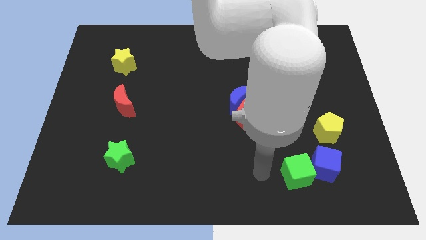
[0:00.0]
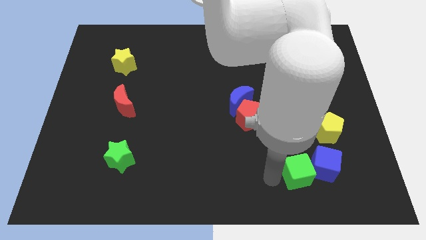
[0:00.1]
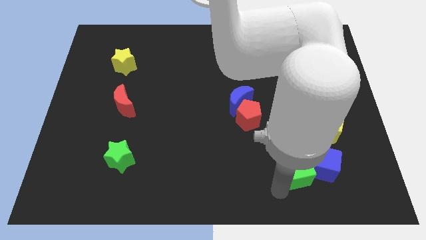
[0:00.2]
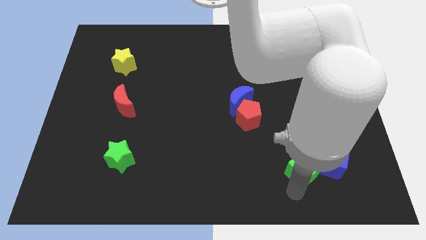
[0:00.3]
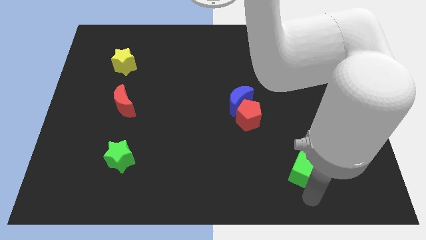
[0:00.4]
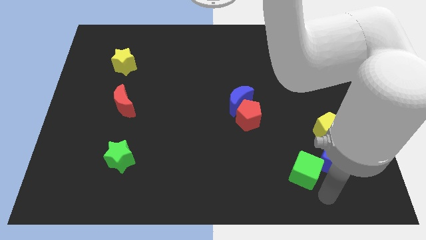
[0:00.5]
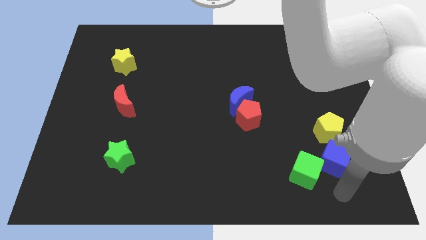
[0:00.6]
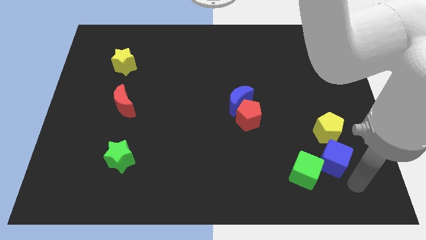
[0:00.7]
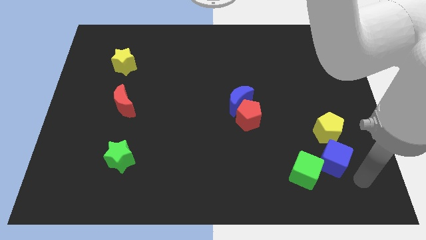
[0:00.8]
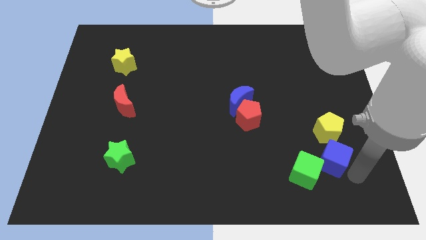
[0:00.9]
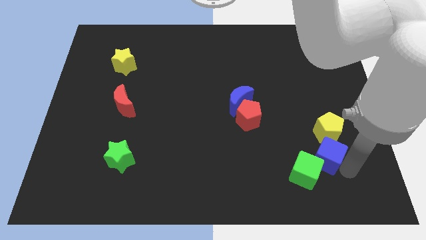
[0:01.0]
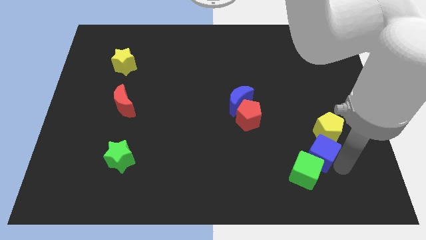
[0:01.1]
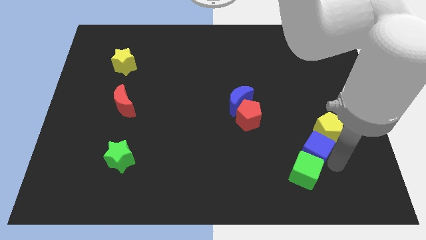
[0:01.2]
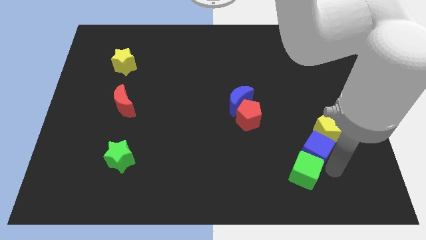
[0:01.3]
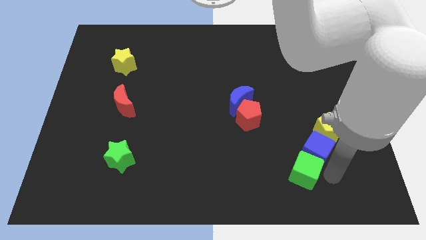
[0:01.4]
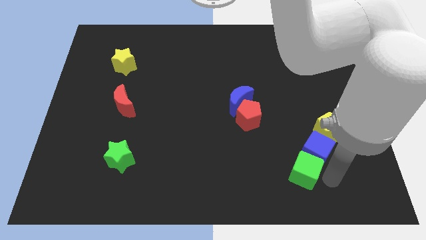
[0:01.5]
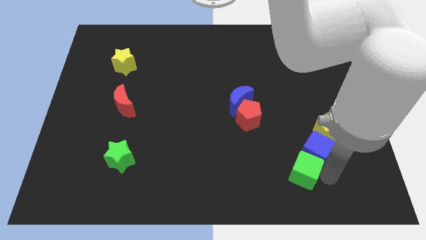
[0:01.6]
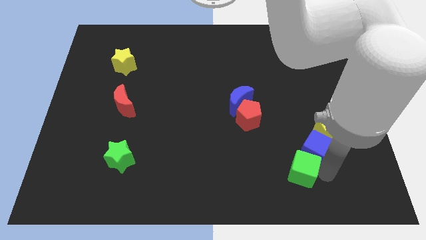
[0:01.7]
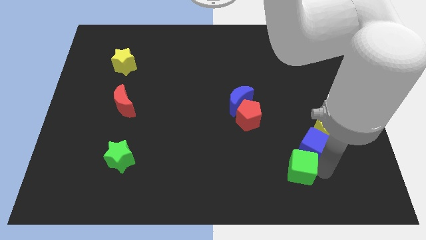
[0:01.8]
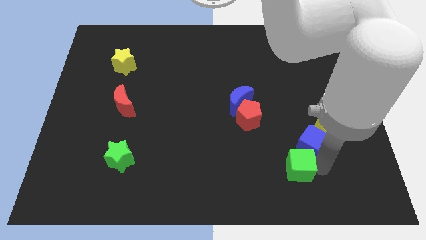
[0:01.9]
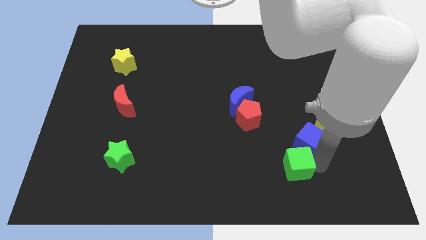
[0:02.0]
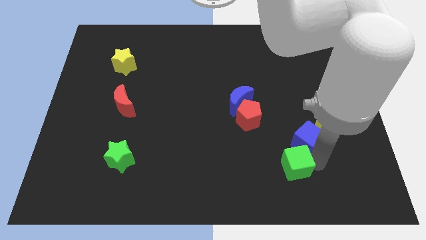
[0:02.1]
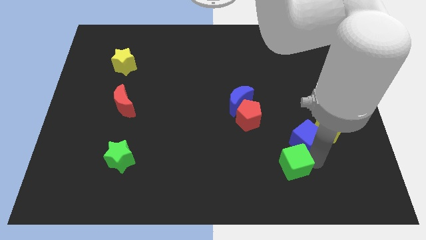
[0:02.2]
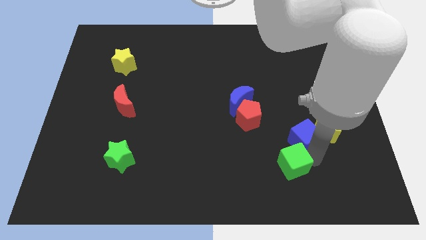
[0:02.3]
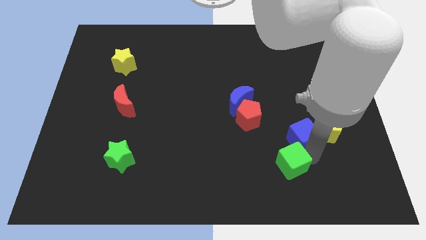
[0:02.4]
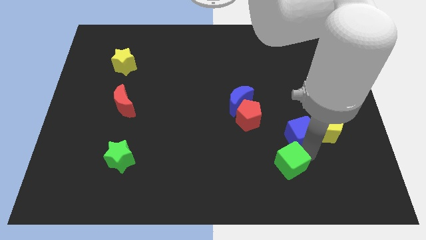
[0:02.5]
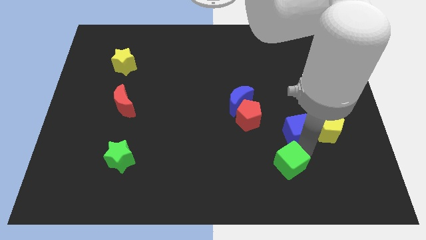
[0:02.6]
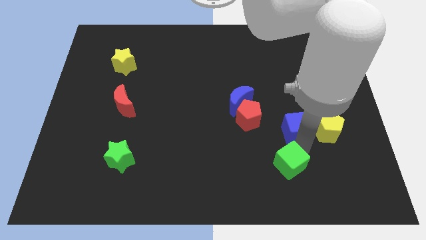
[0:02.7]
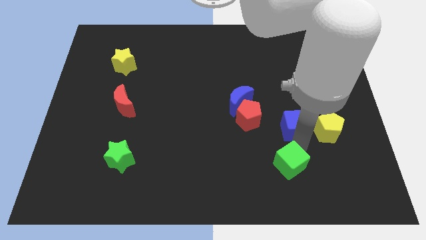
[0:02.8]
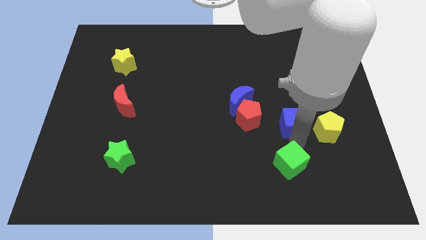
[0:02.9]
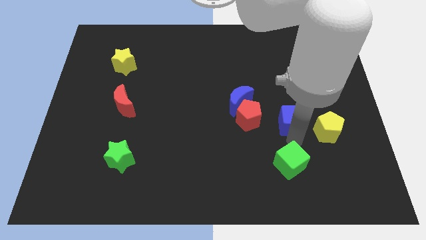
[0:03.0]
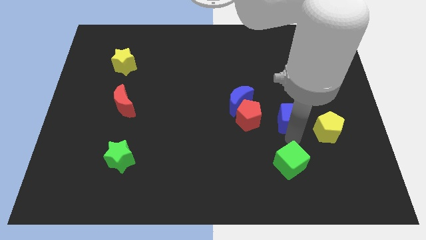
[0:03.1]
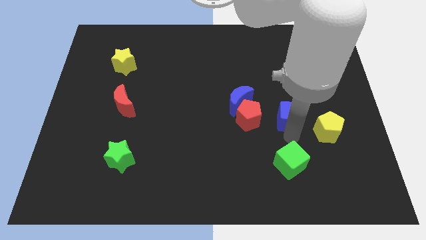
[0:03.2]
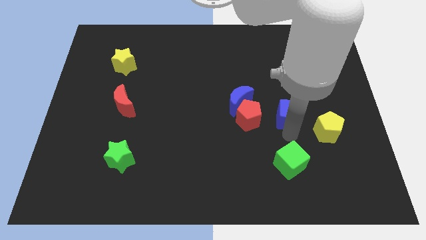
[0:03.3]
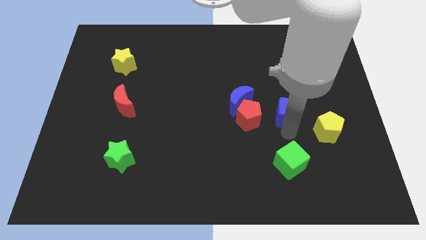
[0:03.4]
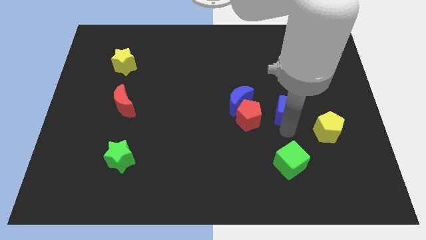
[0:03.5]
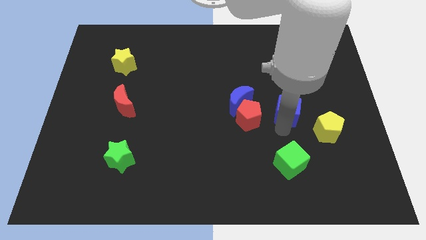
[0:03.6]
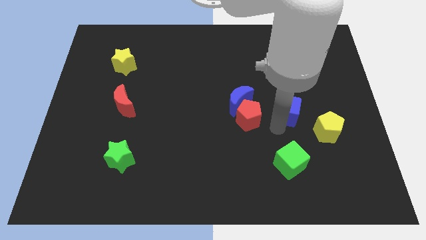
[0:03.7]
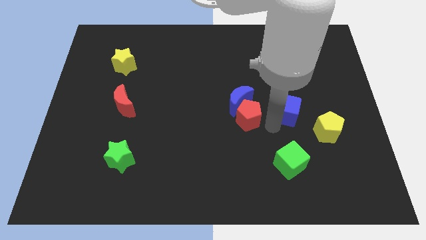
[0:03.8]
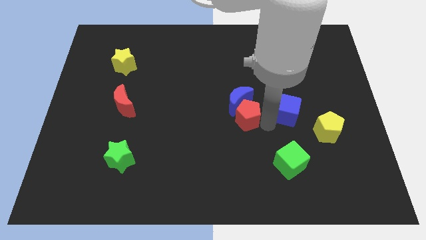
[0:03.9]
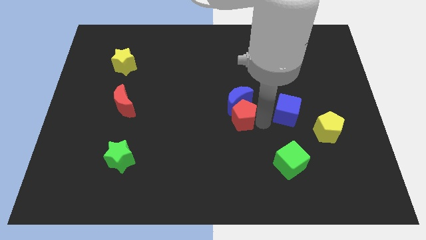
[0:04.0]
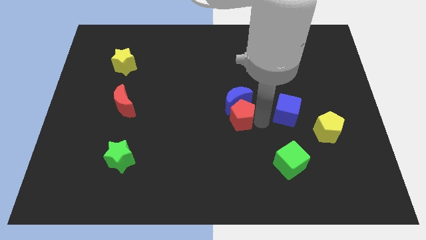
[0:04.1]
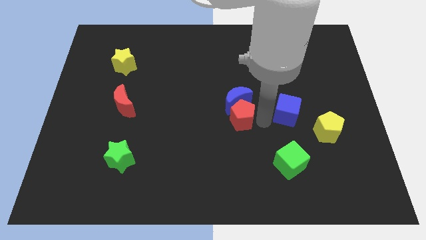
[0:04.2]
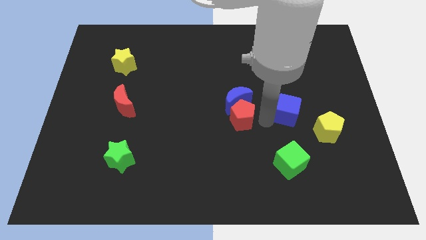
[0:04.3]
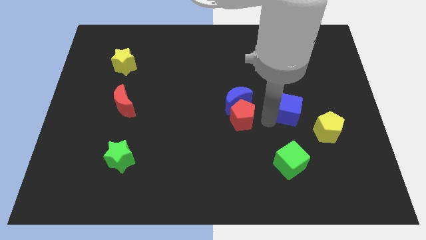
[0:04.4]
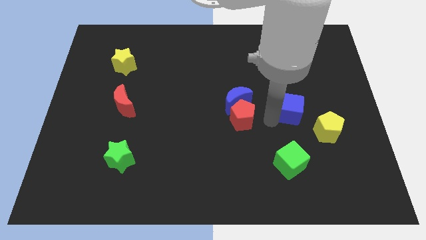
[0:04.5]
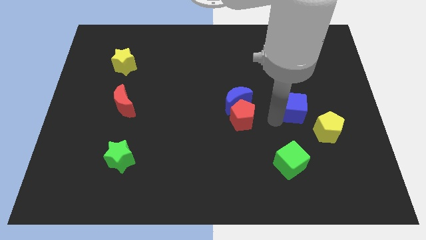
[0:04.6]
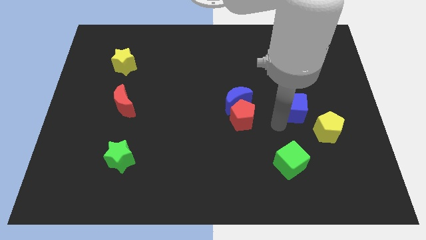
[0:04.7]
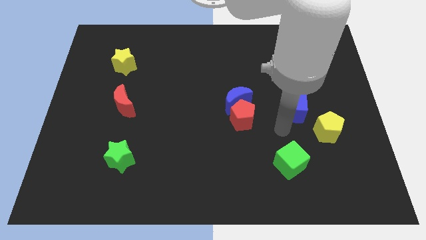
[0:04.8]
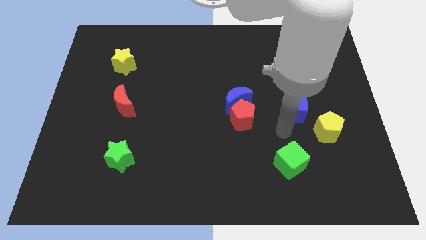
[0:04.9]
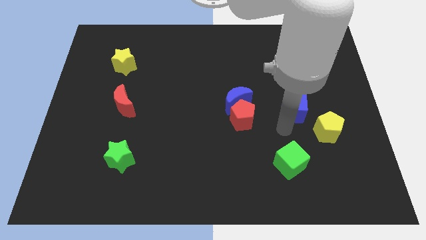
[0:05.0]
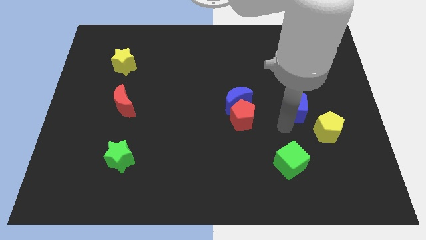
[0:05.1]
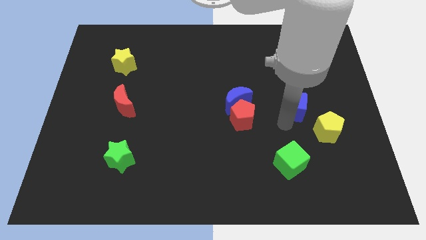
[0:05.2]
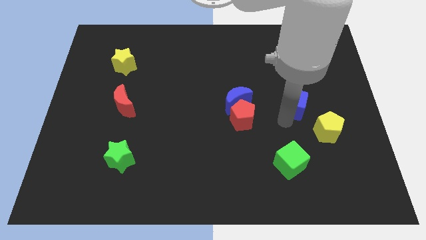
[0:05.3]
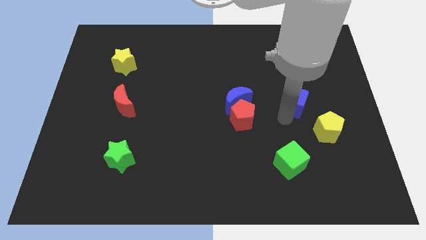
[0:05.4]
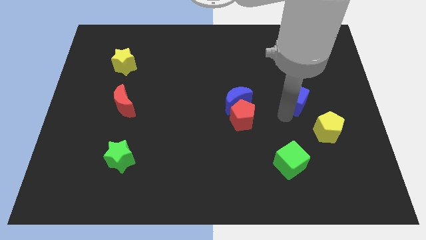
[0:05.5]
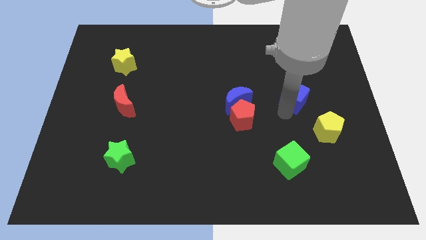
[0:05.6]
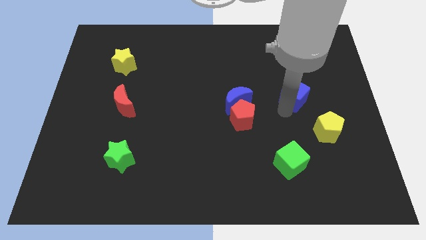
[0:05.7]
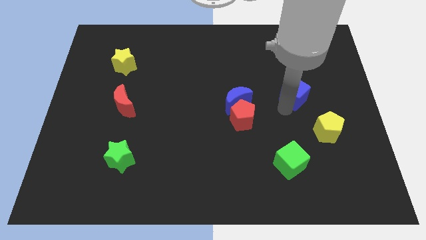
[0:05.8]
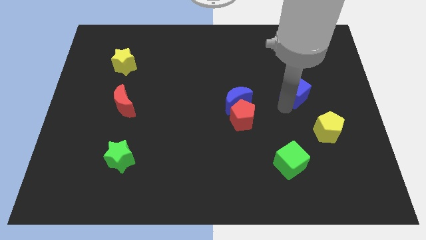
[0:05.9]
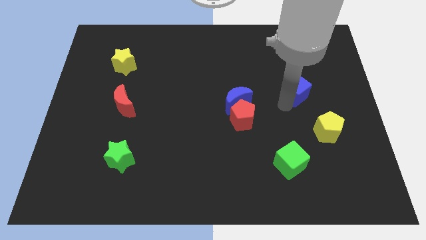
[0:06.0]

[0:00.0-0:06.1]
move the blue cube upwards

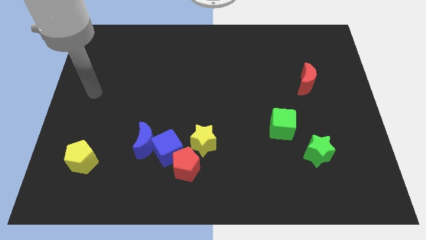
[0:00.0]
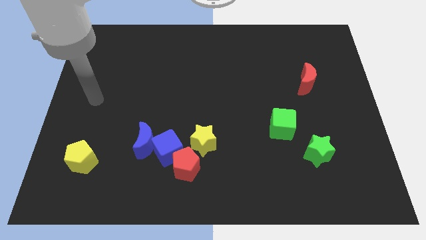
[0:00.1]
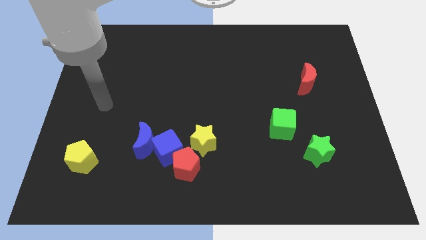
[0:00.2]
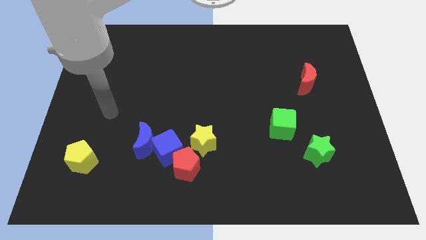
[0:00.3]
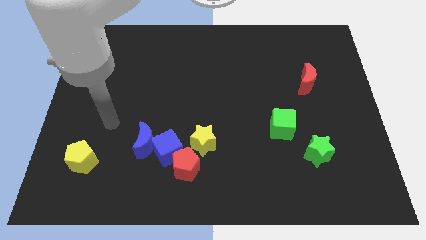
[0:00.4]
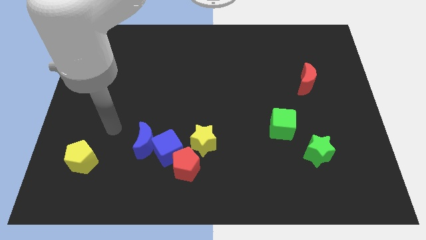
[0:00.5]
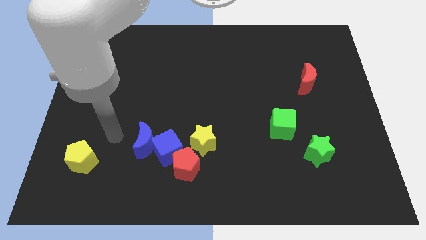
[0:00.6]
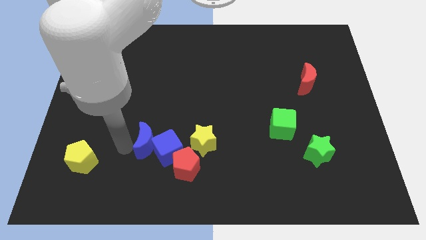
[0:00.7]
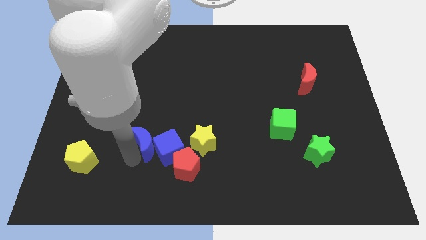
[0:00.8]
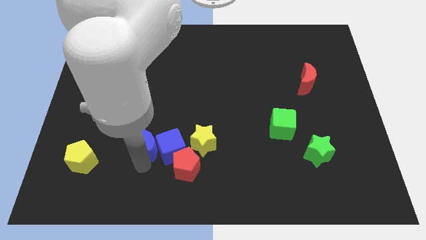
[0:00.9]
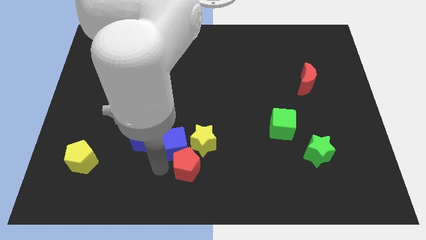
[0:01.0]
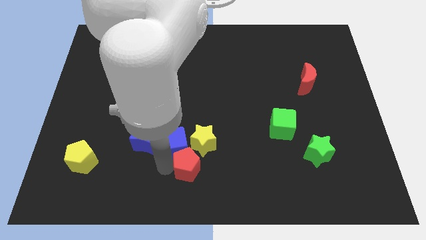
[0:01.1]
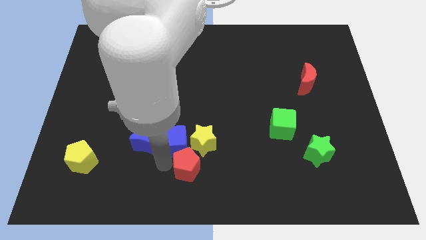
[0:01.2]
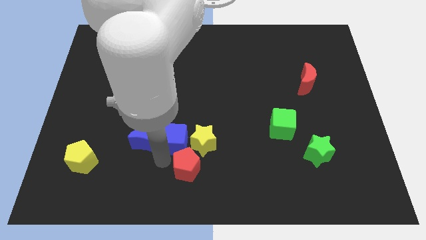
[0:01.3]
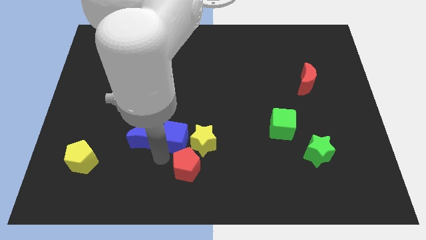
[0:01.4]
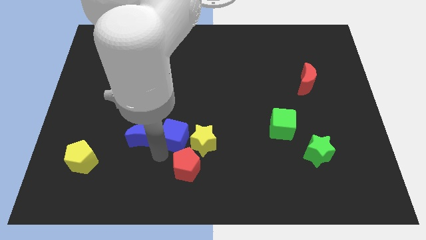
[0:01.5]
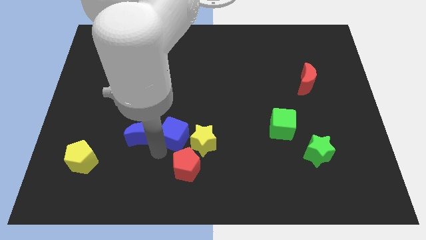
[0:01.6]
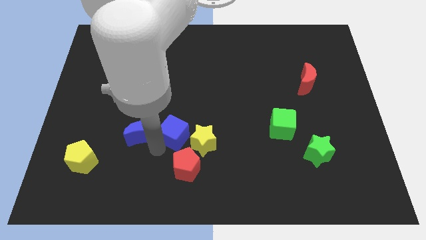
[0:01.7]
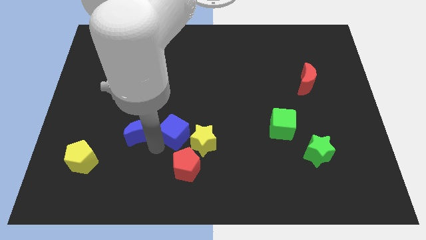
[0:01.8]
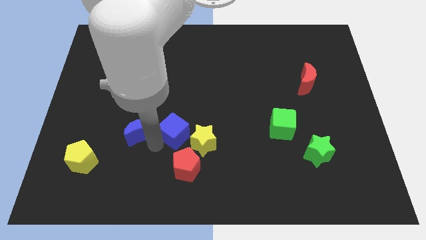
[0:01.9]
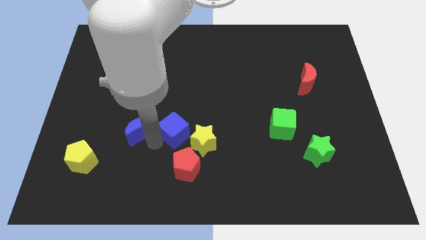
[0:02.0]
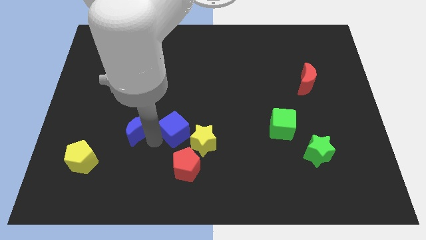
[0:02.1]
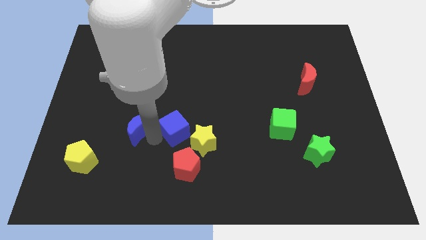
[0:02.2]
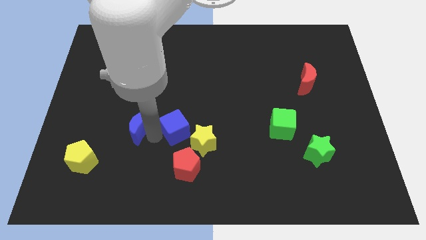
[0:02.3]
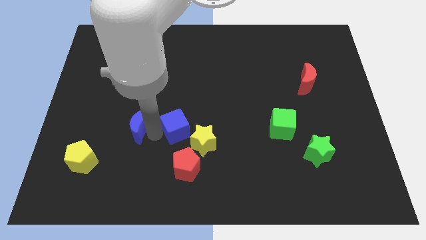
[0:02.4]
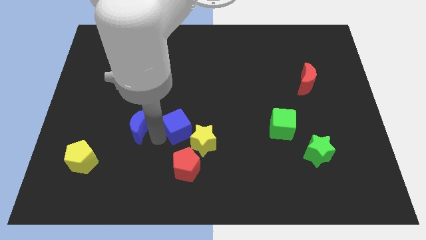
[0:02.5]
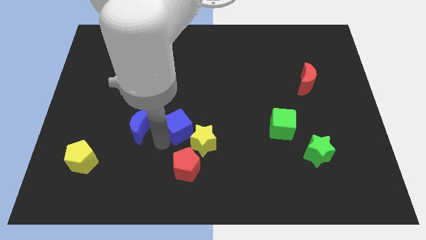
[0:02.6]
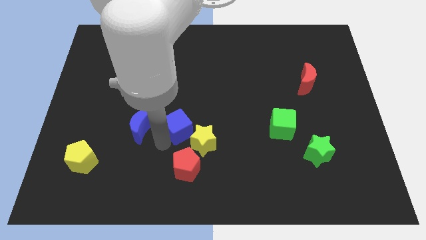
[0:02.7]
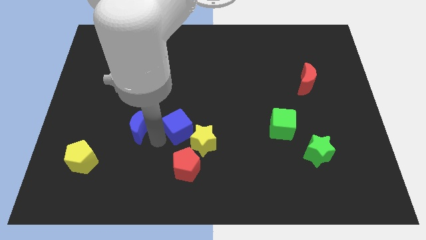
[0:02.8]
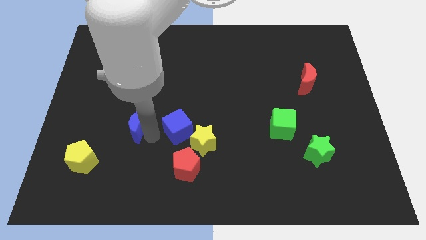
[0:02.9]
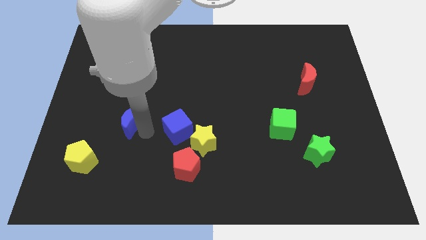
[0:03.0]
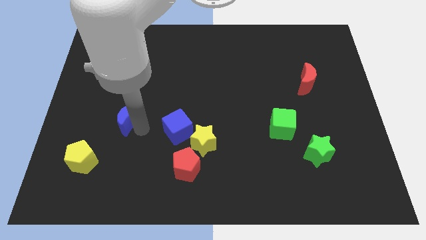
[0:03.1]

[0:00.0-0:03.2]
move the blue moon a bit diagonally up and to the left
